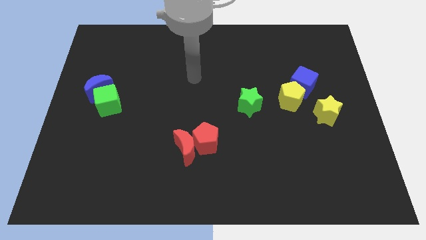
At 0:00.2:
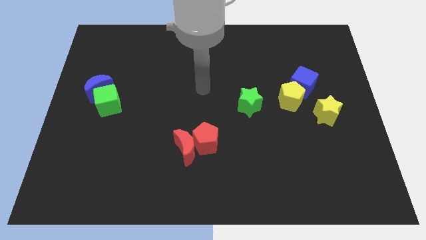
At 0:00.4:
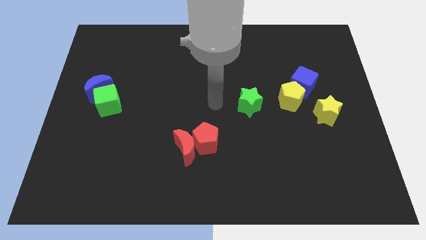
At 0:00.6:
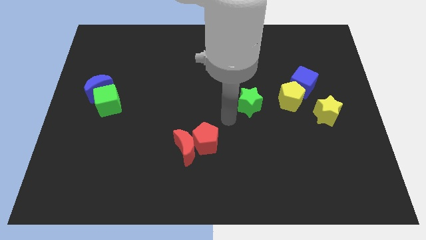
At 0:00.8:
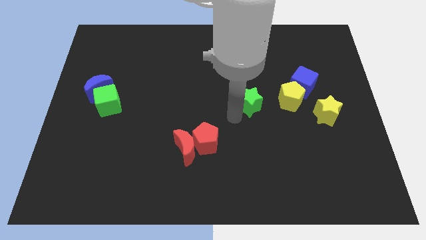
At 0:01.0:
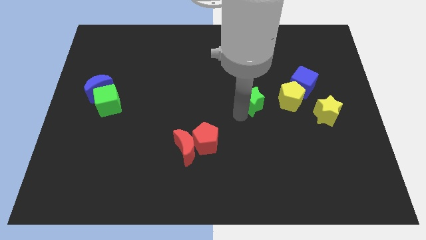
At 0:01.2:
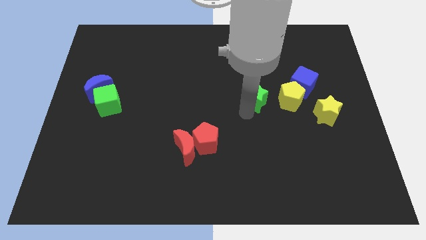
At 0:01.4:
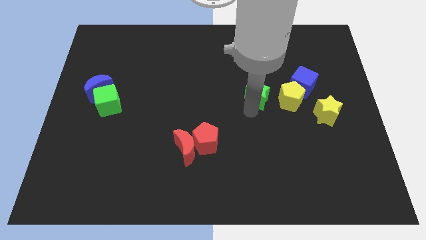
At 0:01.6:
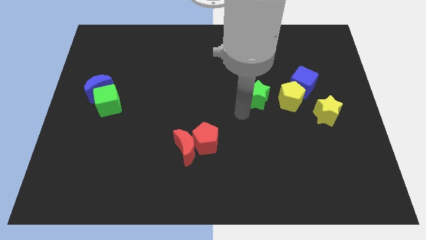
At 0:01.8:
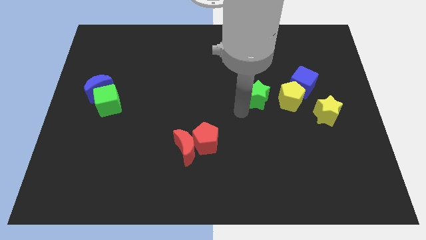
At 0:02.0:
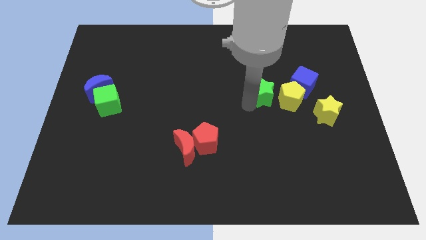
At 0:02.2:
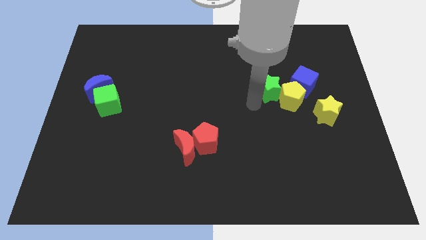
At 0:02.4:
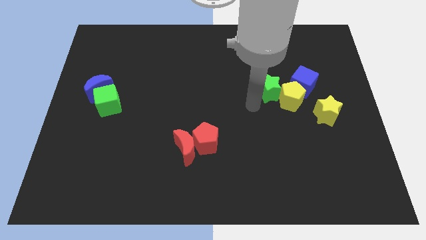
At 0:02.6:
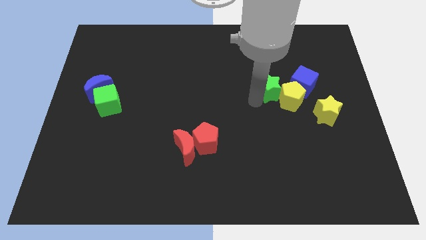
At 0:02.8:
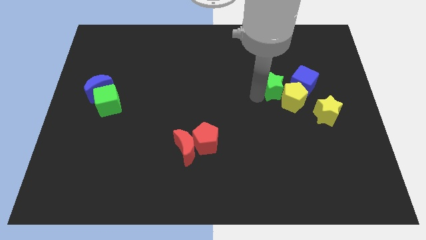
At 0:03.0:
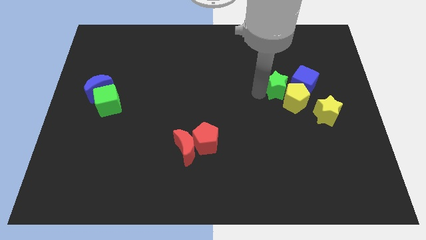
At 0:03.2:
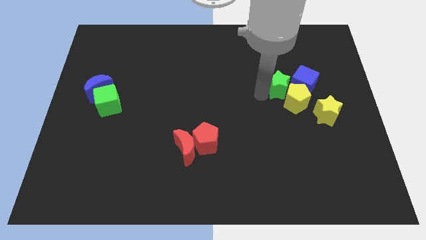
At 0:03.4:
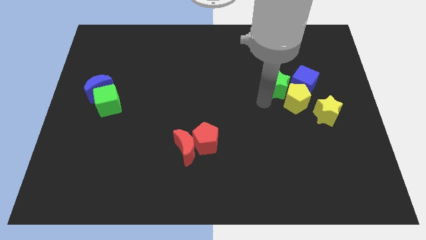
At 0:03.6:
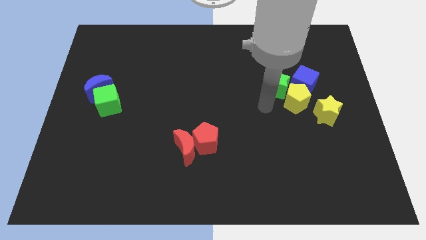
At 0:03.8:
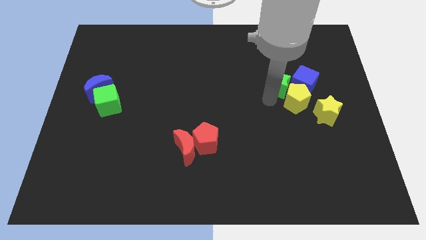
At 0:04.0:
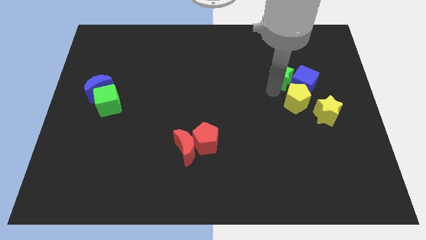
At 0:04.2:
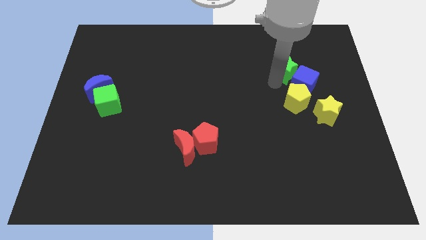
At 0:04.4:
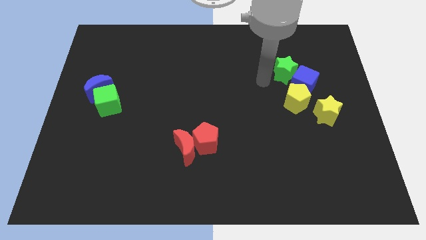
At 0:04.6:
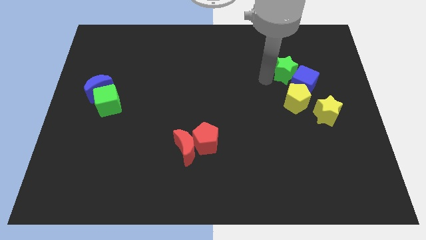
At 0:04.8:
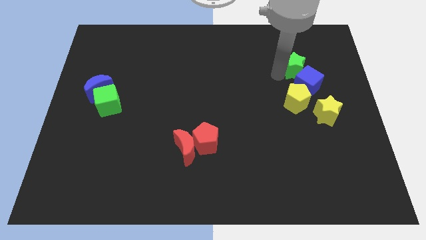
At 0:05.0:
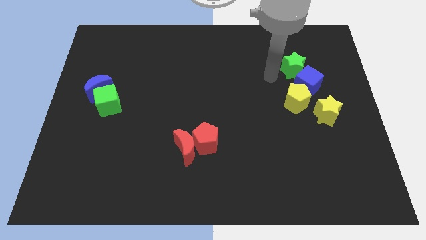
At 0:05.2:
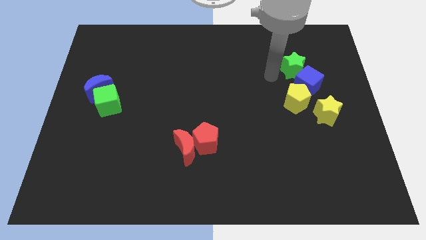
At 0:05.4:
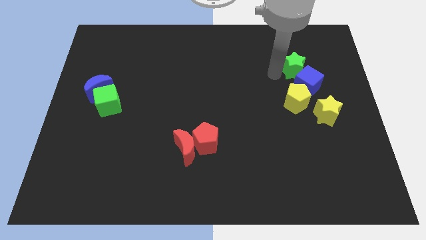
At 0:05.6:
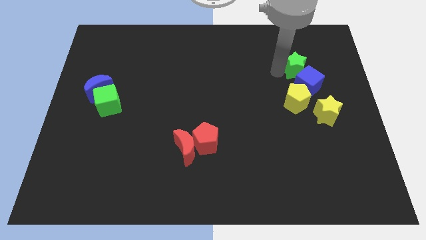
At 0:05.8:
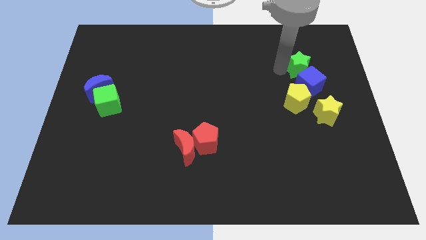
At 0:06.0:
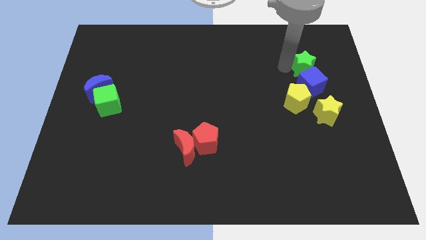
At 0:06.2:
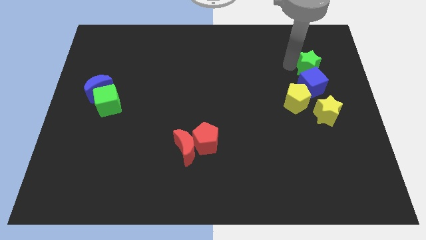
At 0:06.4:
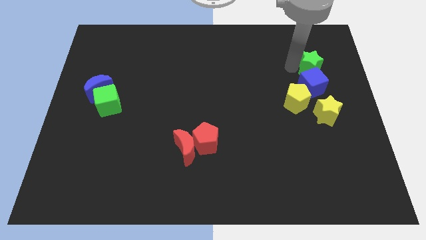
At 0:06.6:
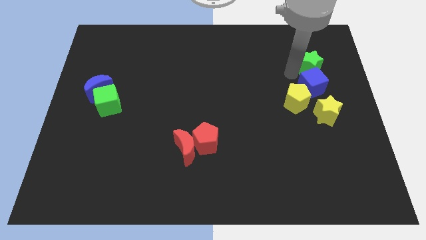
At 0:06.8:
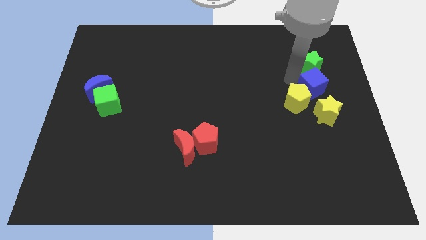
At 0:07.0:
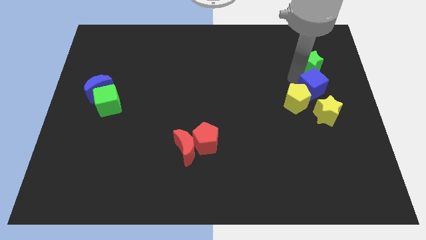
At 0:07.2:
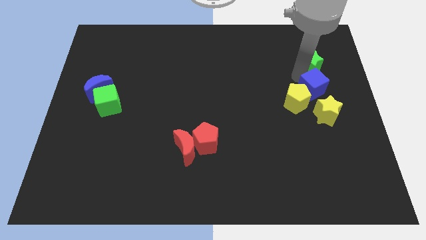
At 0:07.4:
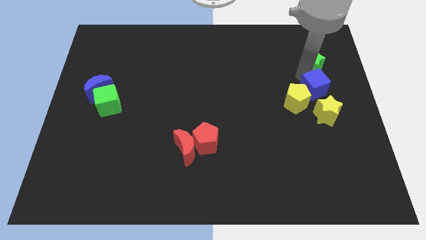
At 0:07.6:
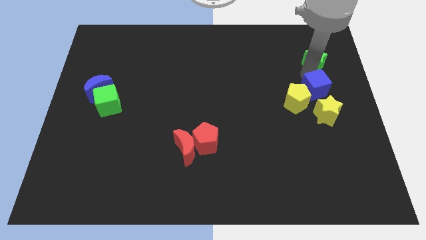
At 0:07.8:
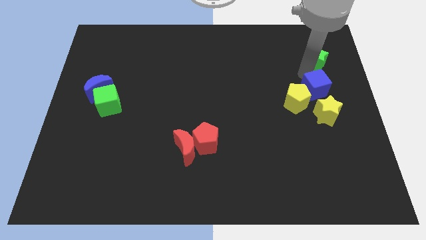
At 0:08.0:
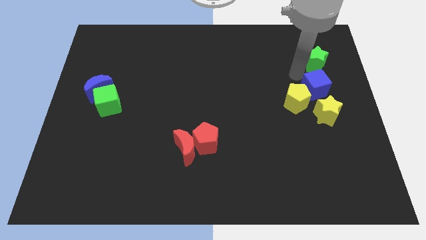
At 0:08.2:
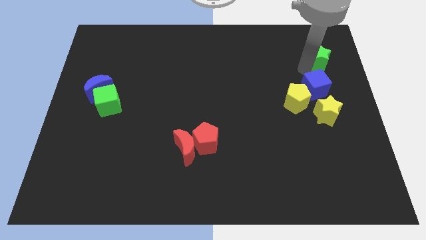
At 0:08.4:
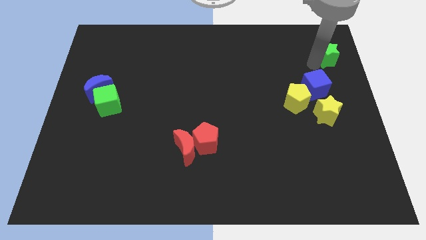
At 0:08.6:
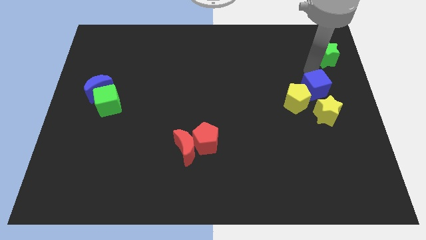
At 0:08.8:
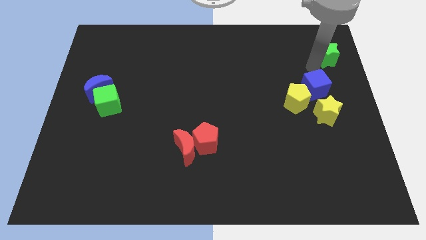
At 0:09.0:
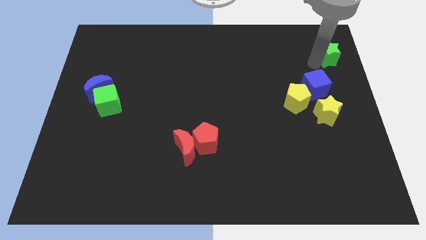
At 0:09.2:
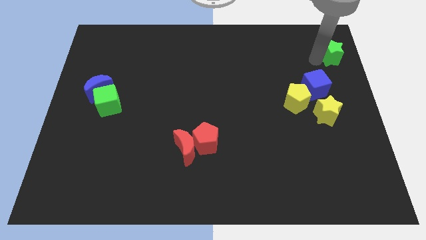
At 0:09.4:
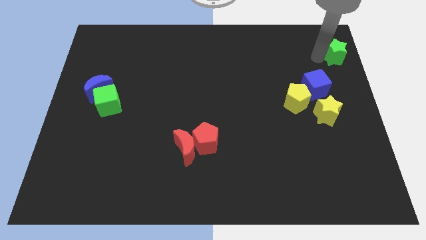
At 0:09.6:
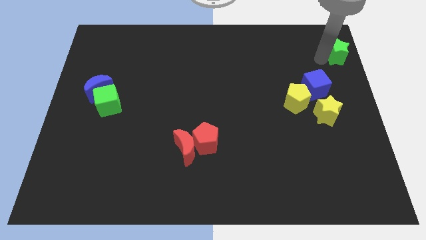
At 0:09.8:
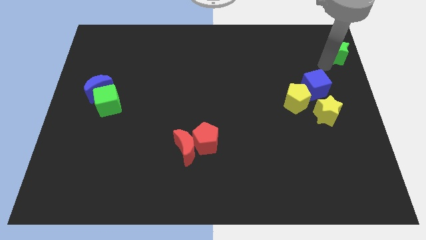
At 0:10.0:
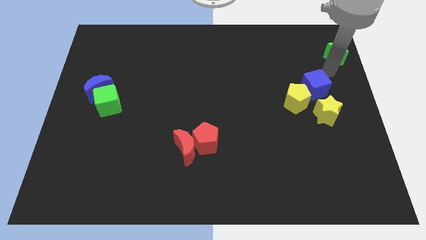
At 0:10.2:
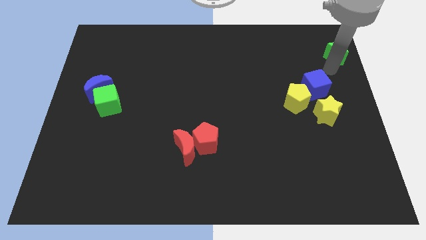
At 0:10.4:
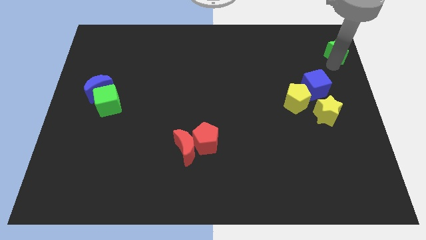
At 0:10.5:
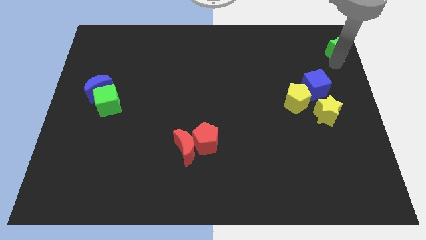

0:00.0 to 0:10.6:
move the green star to the top right corner

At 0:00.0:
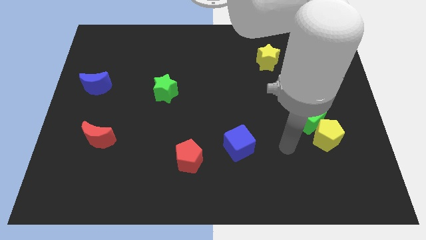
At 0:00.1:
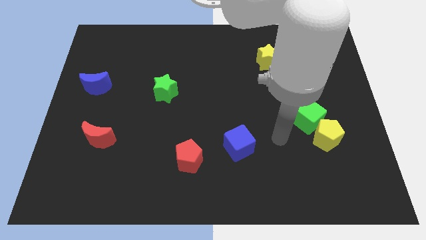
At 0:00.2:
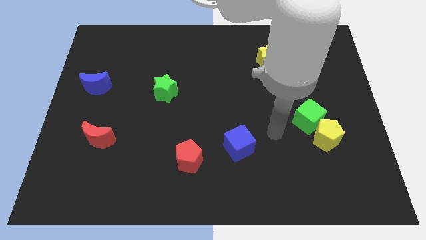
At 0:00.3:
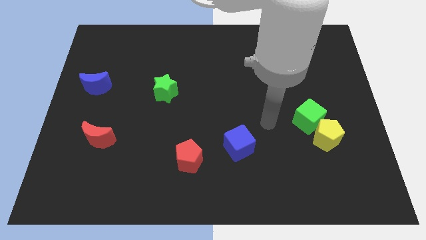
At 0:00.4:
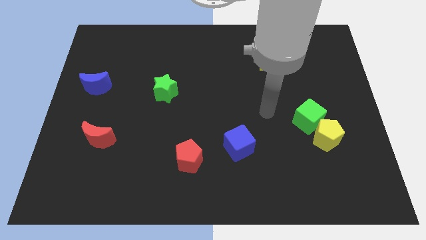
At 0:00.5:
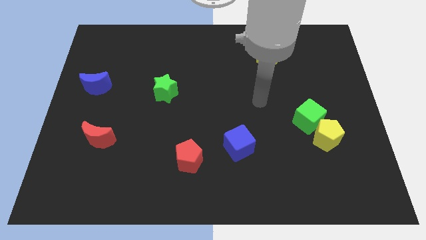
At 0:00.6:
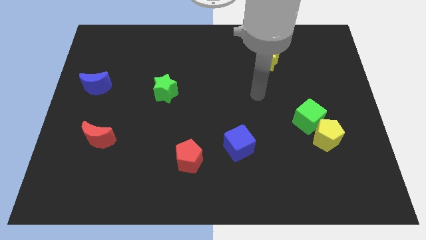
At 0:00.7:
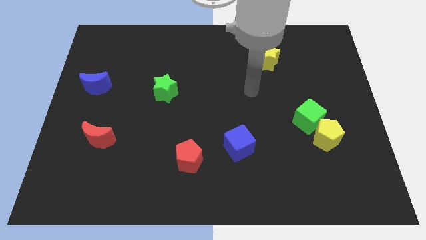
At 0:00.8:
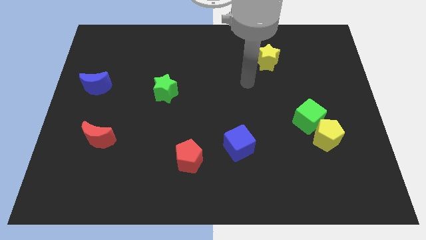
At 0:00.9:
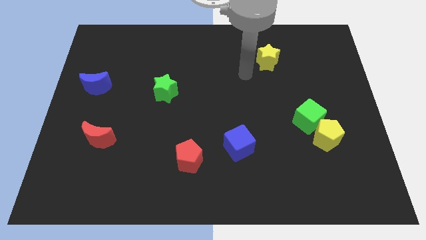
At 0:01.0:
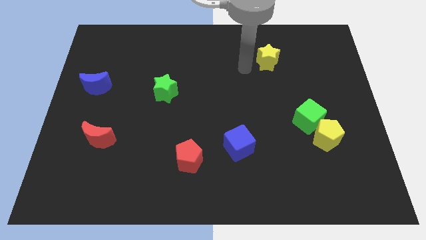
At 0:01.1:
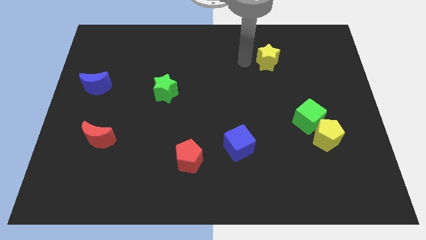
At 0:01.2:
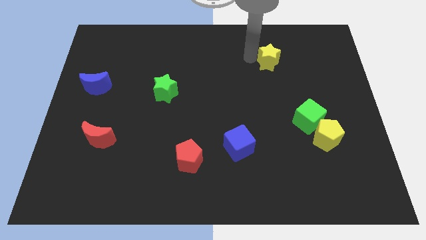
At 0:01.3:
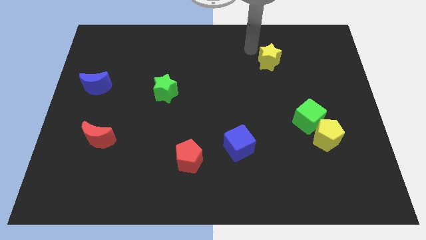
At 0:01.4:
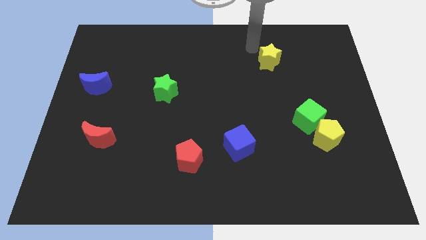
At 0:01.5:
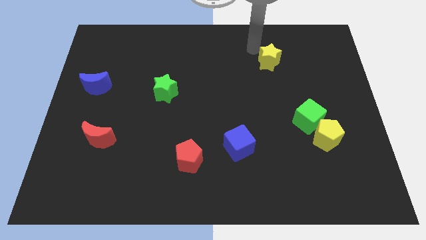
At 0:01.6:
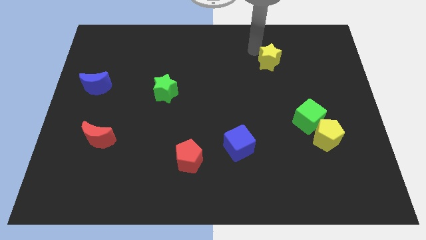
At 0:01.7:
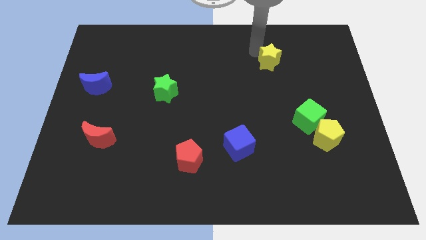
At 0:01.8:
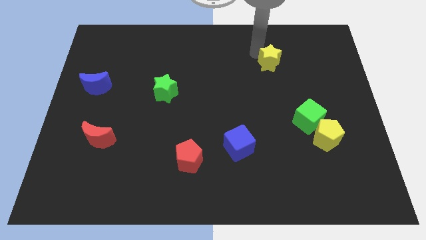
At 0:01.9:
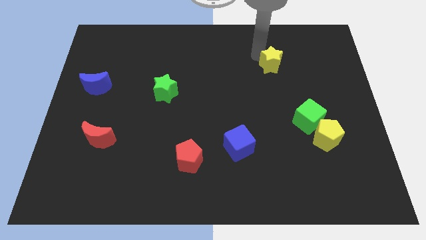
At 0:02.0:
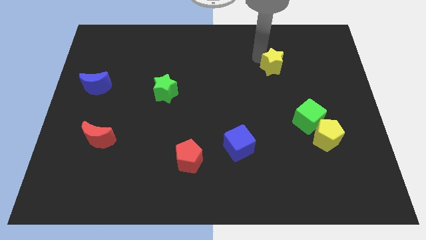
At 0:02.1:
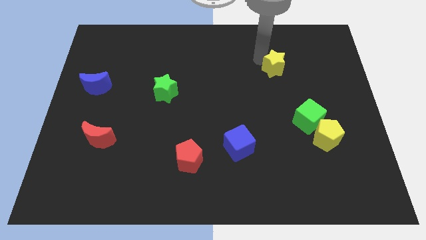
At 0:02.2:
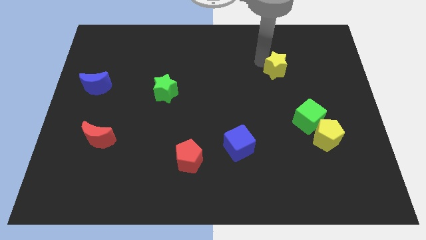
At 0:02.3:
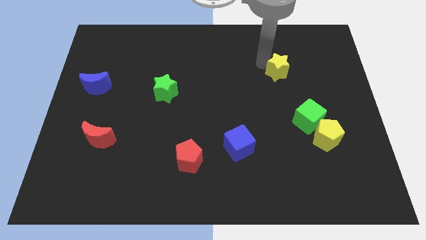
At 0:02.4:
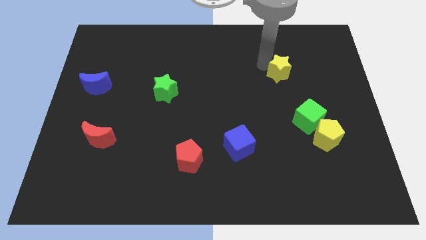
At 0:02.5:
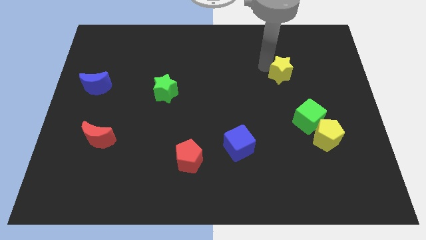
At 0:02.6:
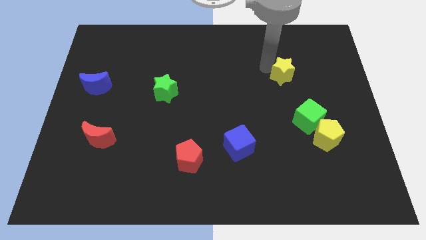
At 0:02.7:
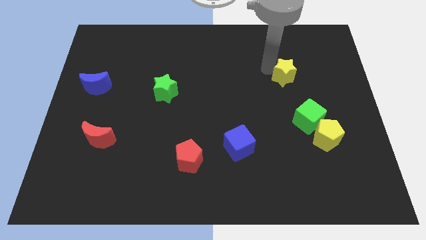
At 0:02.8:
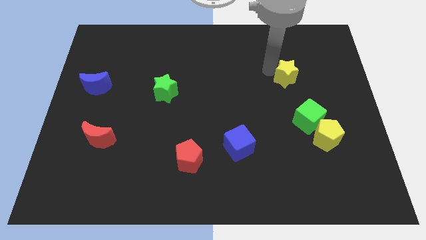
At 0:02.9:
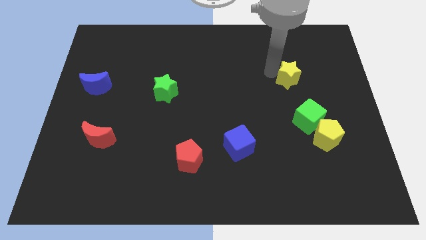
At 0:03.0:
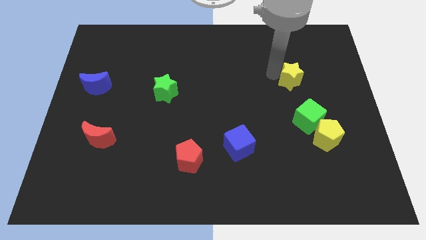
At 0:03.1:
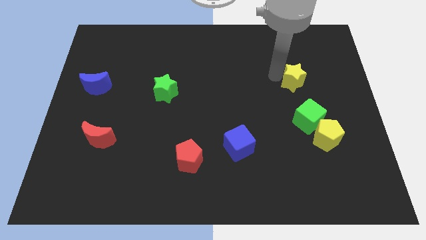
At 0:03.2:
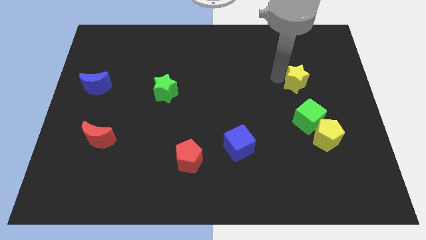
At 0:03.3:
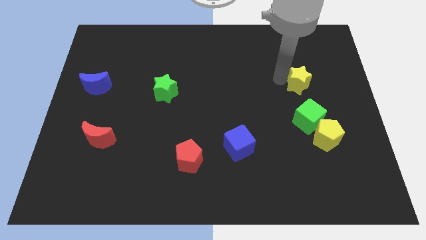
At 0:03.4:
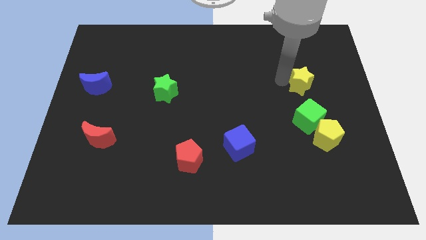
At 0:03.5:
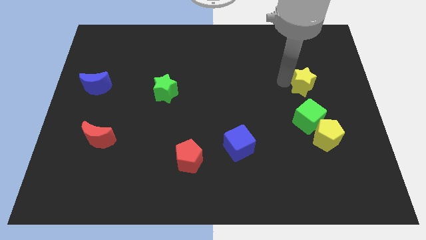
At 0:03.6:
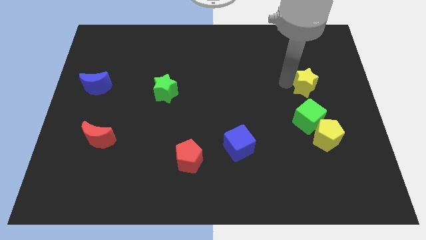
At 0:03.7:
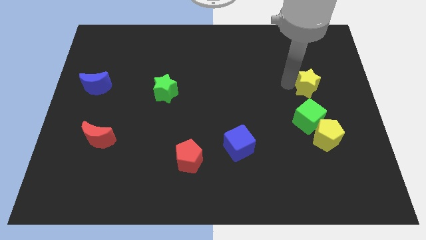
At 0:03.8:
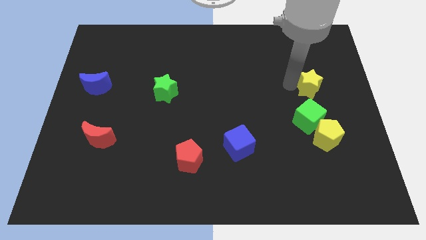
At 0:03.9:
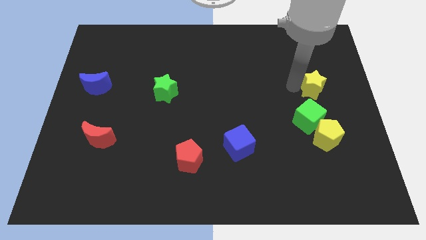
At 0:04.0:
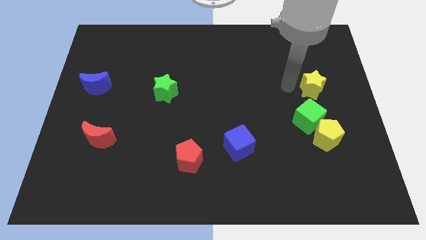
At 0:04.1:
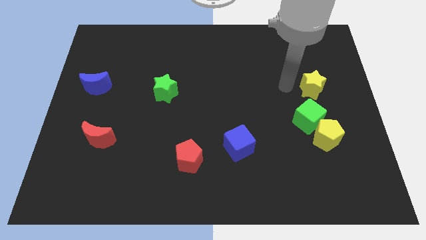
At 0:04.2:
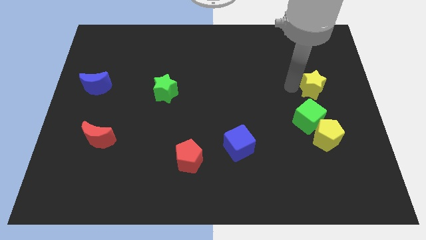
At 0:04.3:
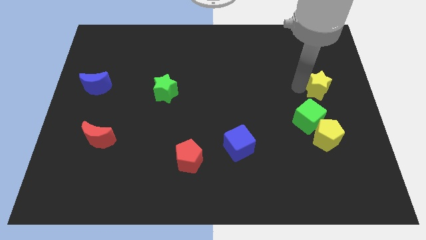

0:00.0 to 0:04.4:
move the yellow star to the right side
